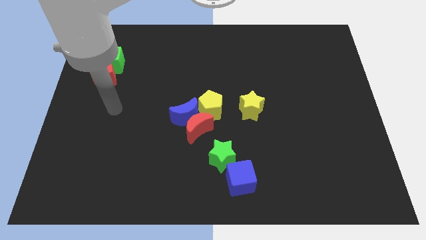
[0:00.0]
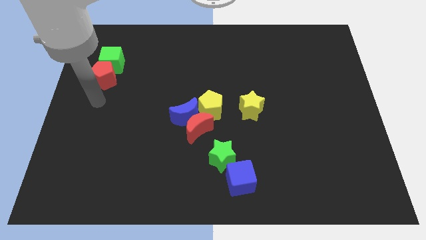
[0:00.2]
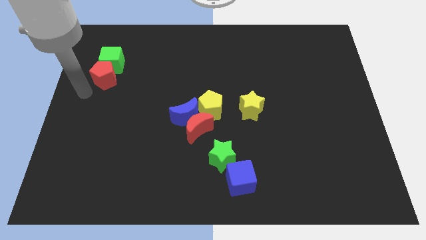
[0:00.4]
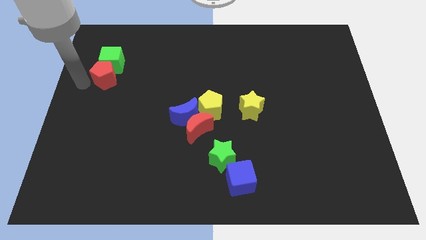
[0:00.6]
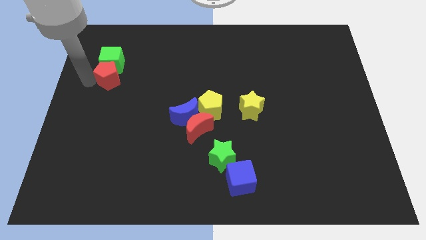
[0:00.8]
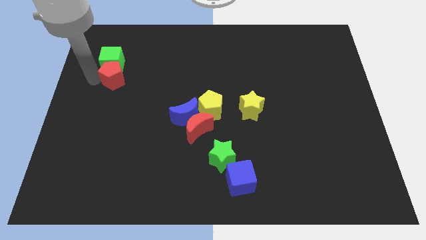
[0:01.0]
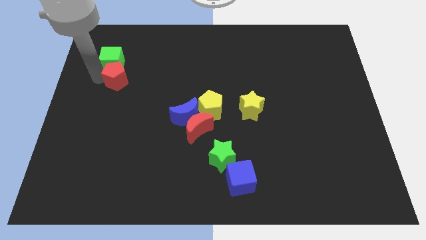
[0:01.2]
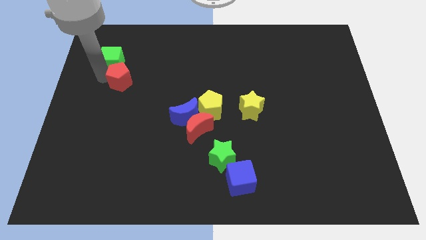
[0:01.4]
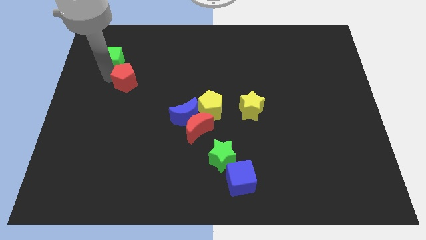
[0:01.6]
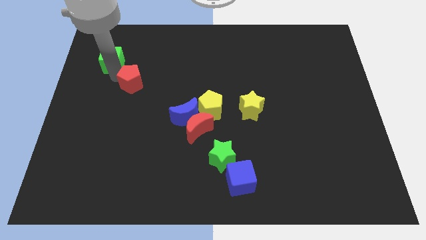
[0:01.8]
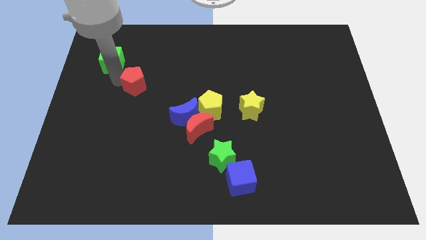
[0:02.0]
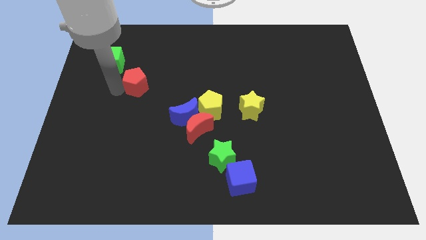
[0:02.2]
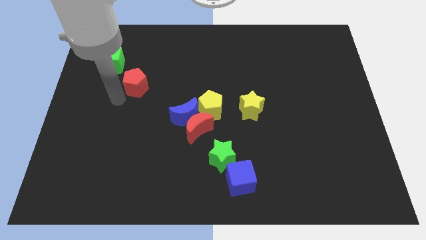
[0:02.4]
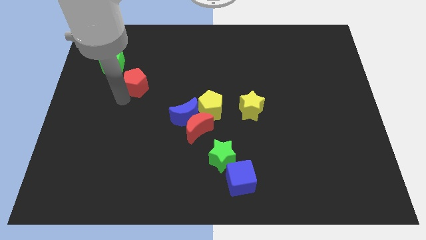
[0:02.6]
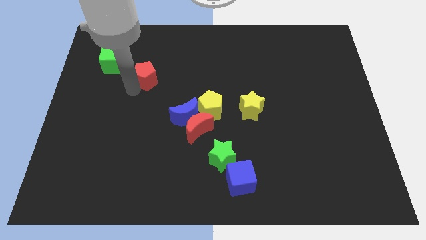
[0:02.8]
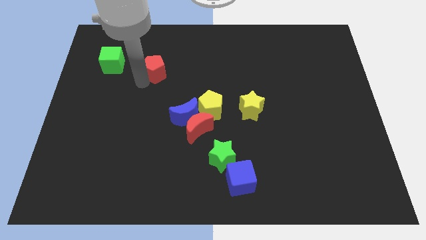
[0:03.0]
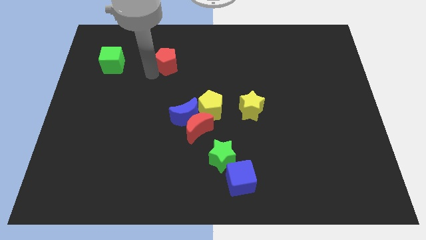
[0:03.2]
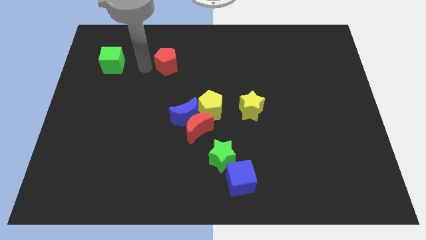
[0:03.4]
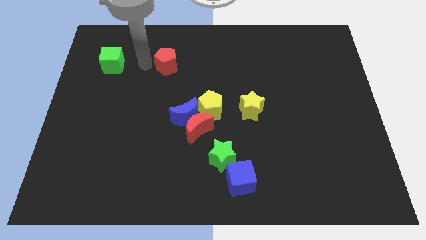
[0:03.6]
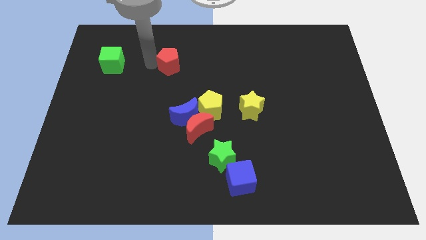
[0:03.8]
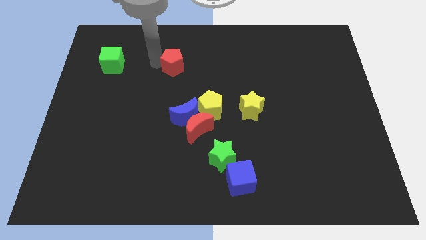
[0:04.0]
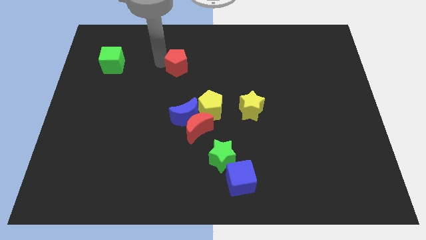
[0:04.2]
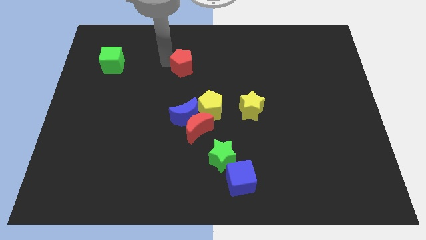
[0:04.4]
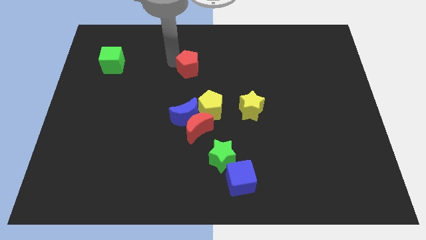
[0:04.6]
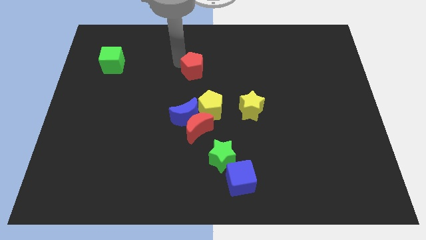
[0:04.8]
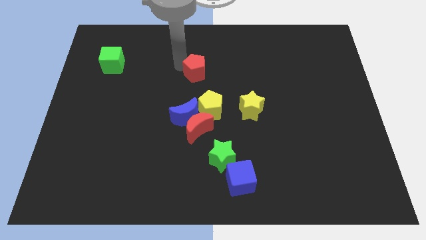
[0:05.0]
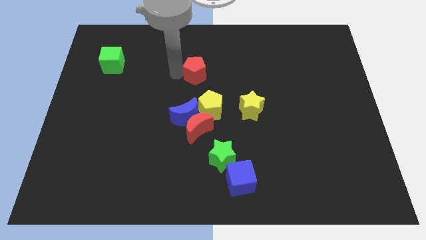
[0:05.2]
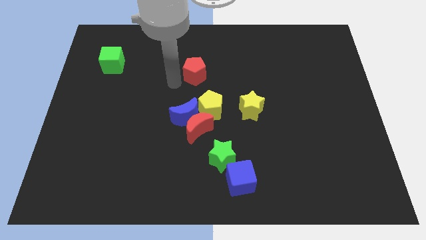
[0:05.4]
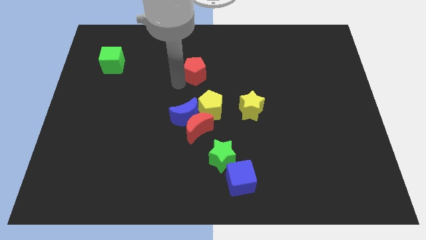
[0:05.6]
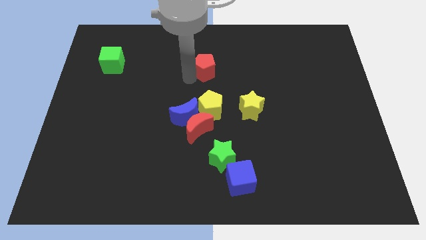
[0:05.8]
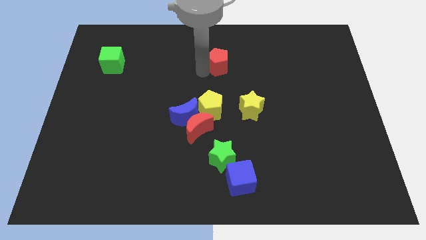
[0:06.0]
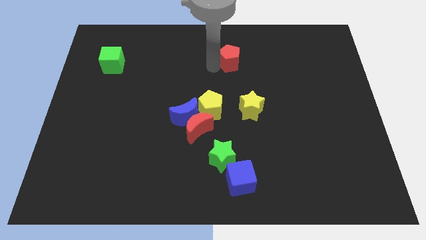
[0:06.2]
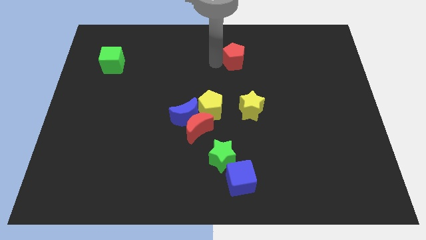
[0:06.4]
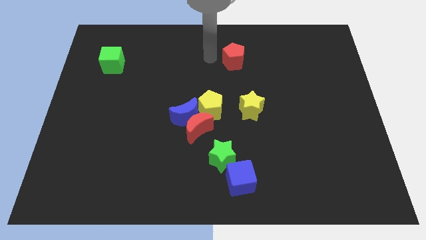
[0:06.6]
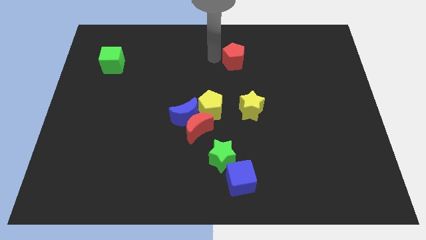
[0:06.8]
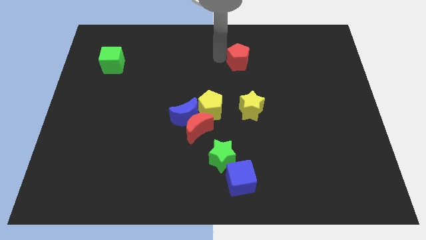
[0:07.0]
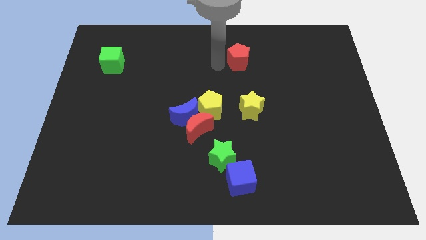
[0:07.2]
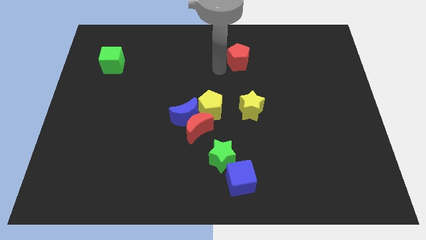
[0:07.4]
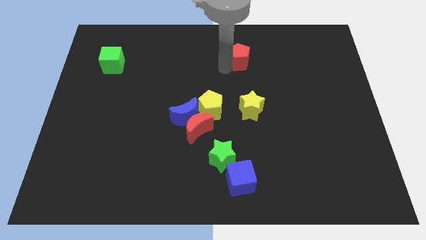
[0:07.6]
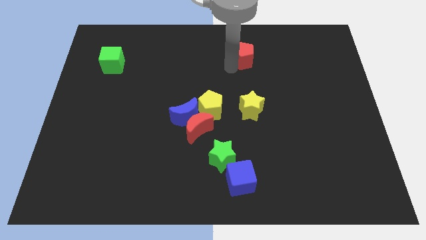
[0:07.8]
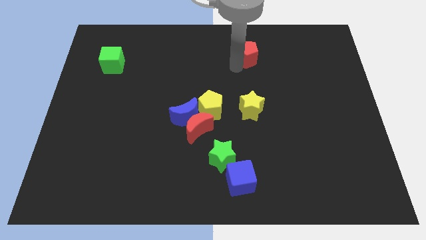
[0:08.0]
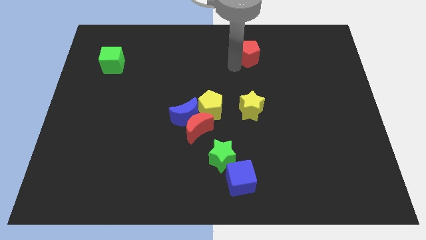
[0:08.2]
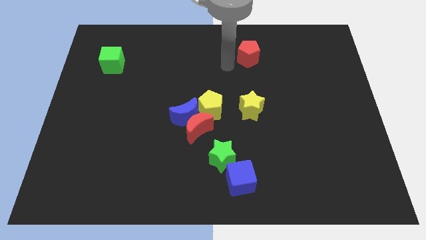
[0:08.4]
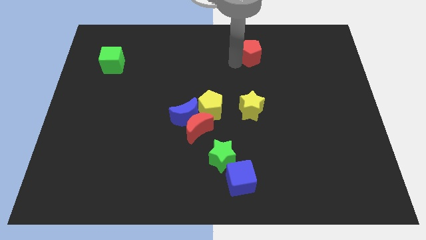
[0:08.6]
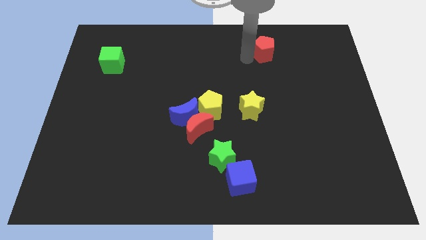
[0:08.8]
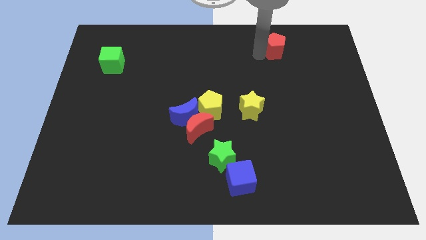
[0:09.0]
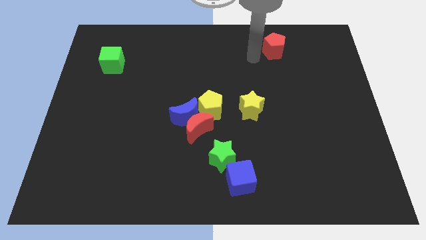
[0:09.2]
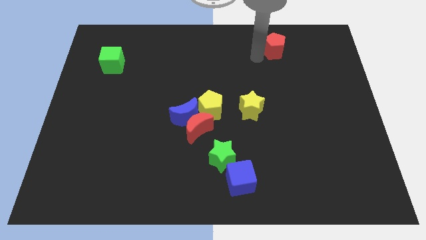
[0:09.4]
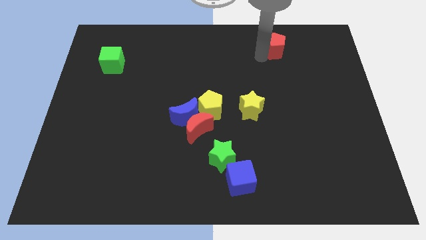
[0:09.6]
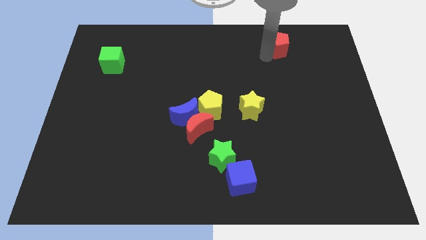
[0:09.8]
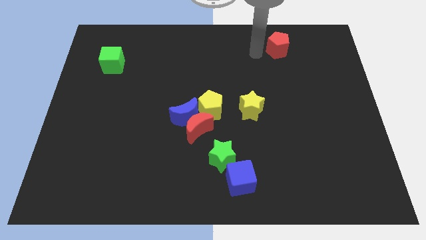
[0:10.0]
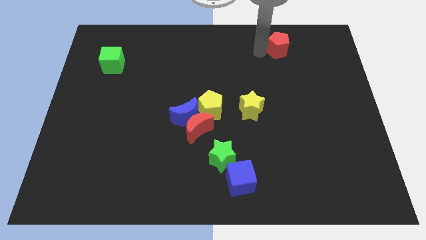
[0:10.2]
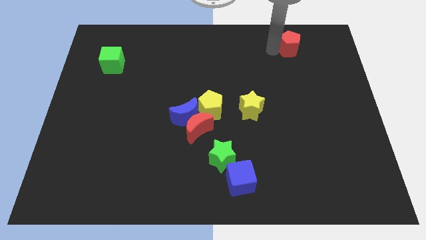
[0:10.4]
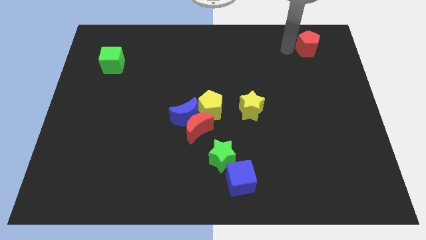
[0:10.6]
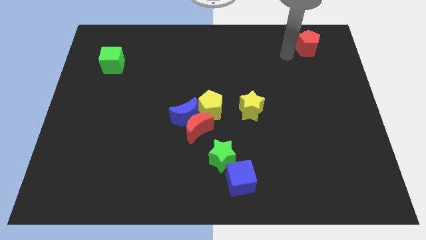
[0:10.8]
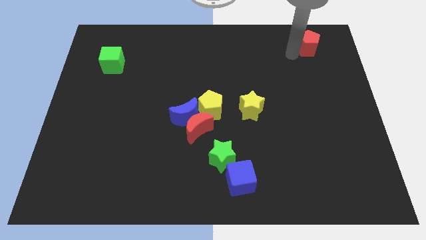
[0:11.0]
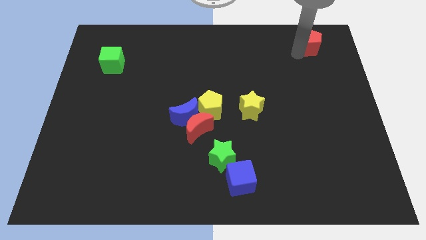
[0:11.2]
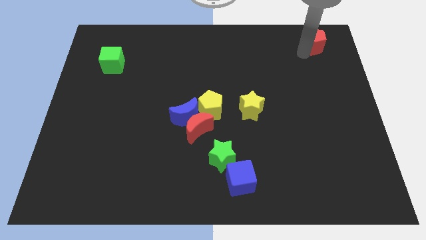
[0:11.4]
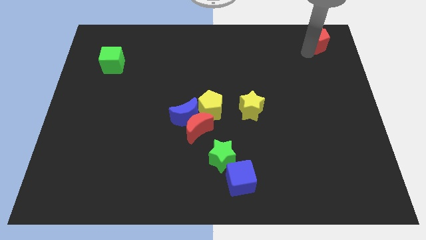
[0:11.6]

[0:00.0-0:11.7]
put the red pentagon to the upper right corner

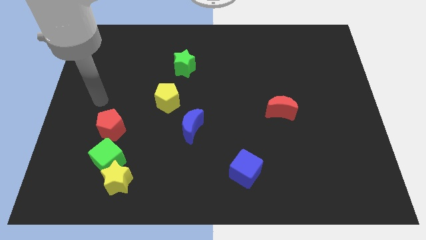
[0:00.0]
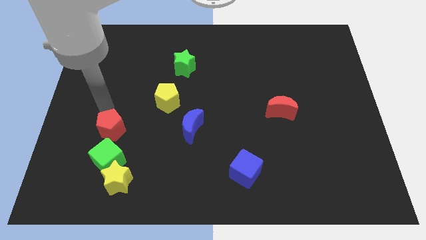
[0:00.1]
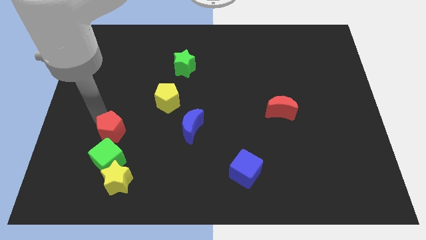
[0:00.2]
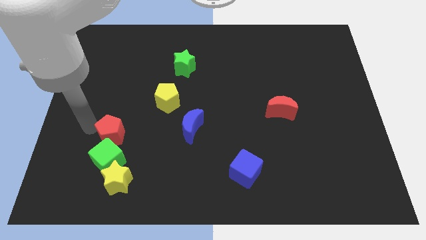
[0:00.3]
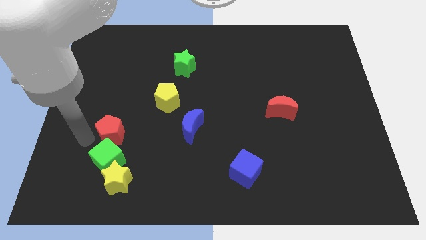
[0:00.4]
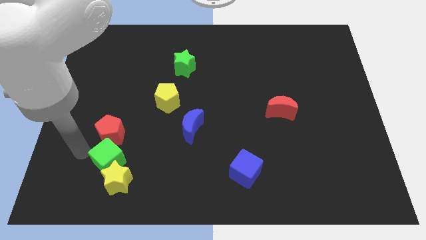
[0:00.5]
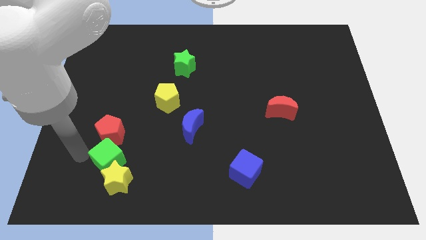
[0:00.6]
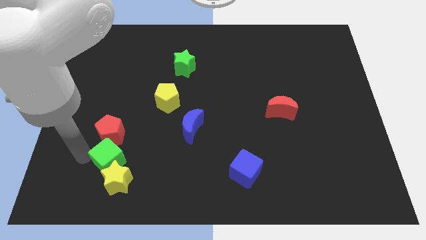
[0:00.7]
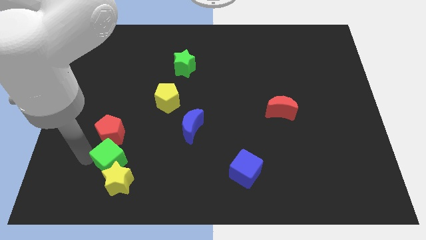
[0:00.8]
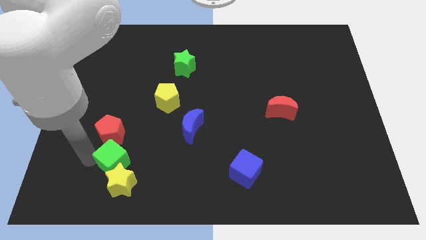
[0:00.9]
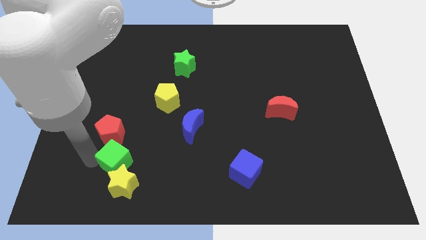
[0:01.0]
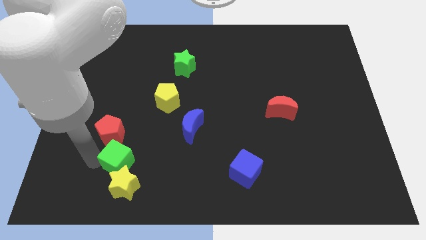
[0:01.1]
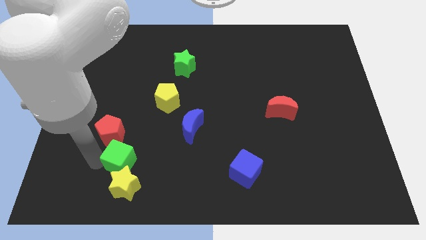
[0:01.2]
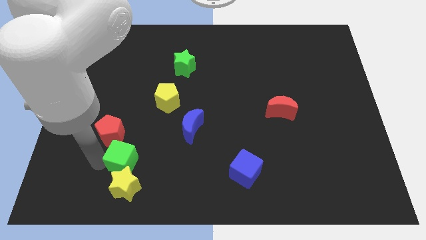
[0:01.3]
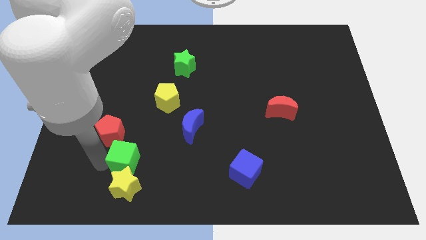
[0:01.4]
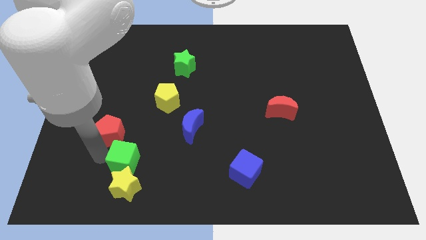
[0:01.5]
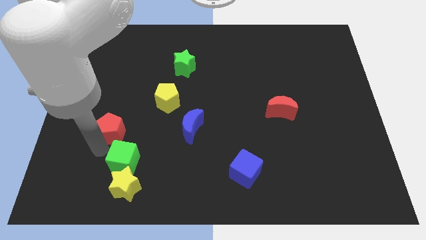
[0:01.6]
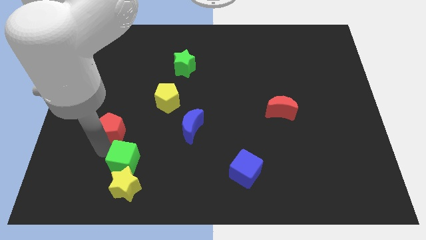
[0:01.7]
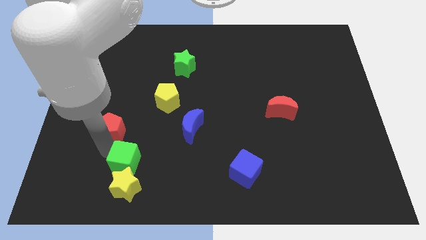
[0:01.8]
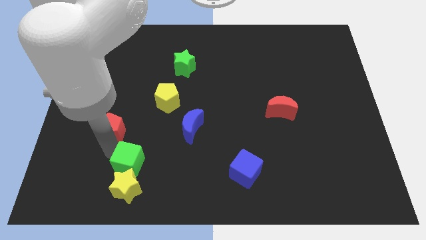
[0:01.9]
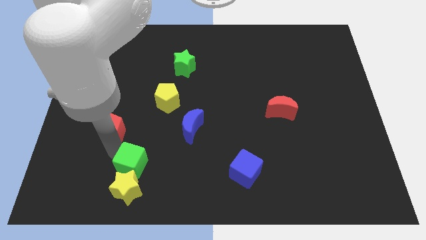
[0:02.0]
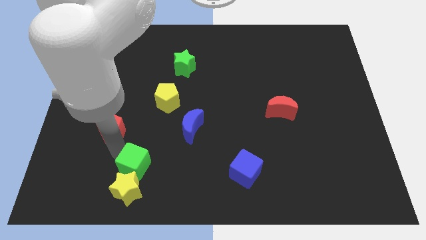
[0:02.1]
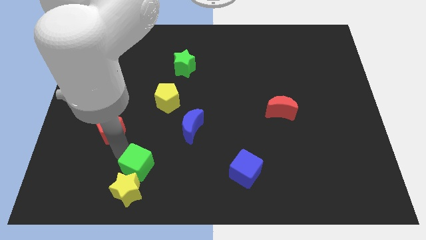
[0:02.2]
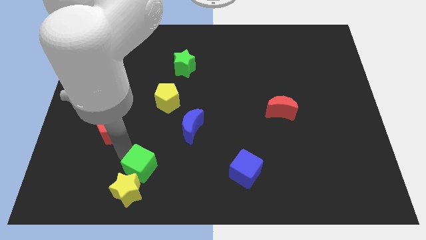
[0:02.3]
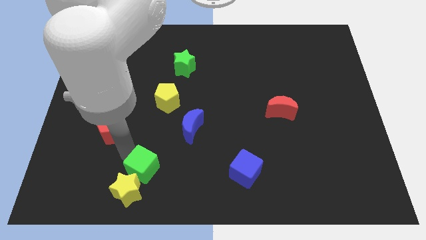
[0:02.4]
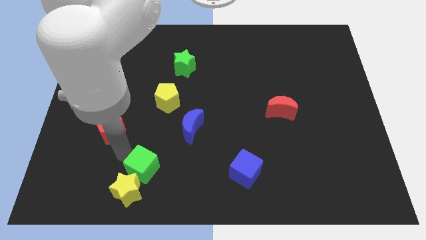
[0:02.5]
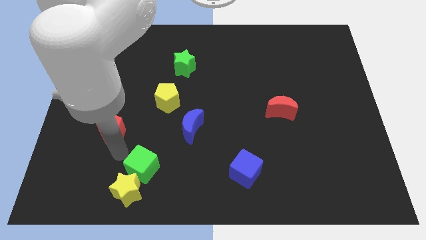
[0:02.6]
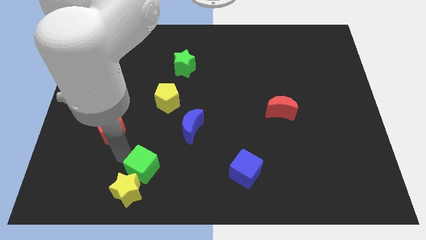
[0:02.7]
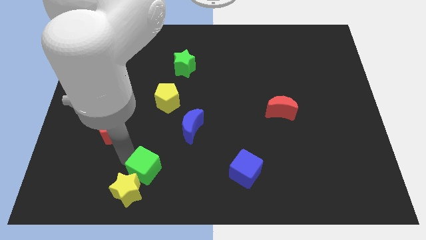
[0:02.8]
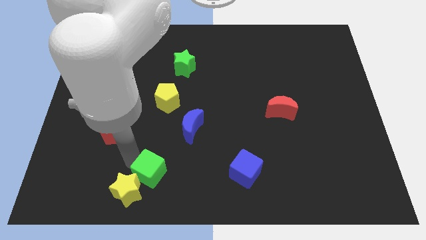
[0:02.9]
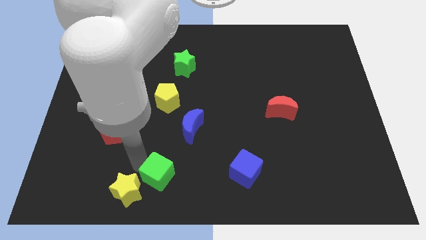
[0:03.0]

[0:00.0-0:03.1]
slide the green cube to the bottom
